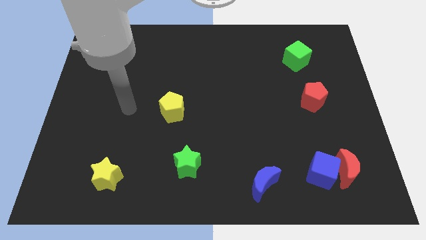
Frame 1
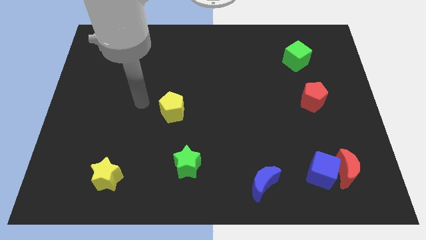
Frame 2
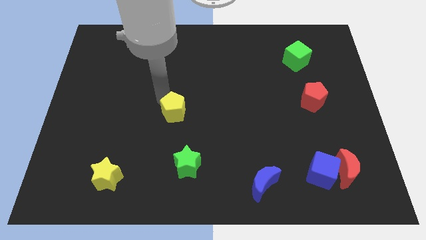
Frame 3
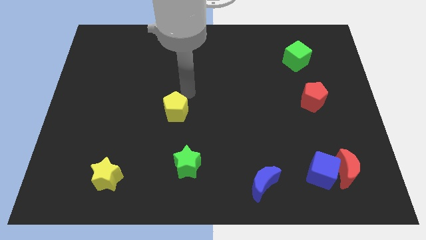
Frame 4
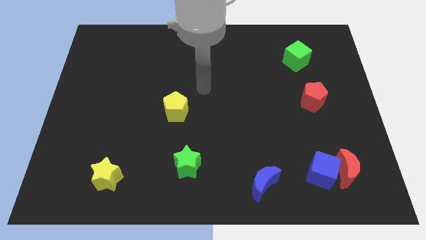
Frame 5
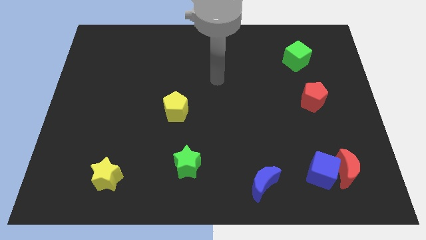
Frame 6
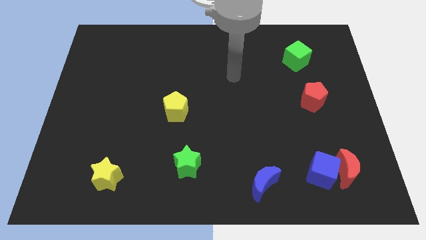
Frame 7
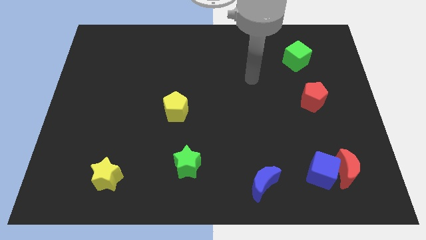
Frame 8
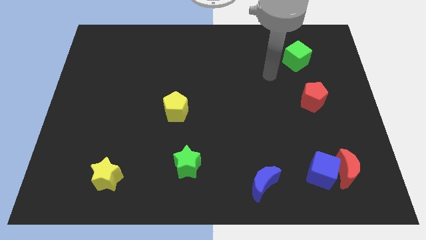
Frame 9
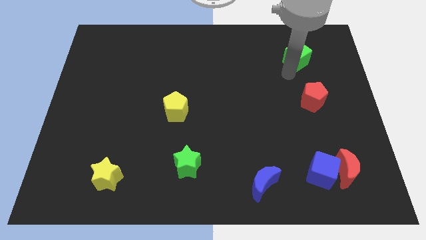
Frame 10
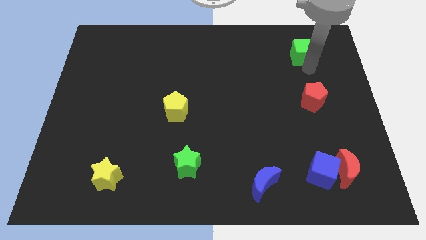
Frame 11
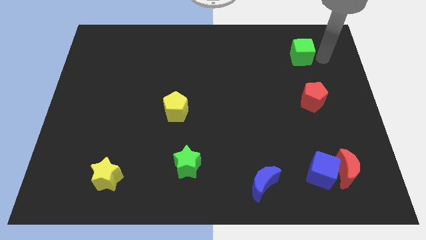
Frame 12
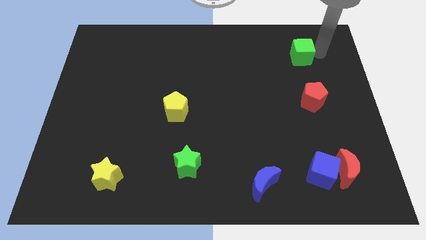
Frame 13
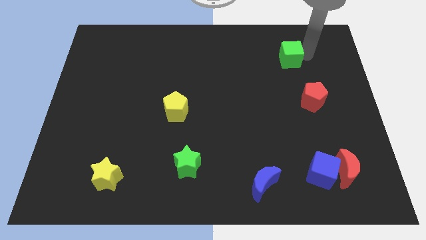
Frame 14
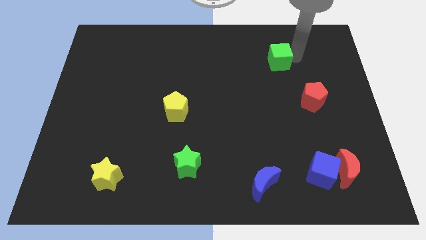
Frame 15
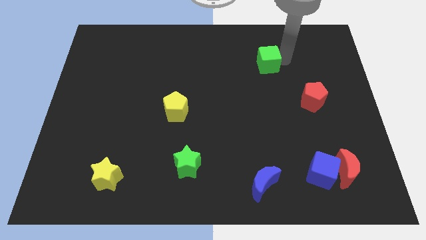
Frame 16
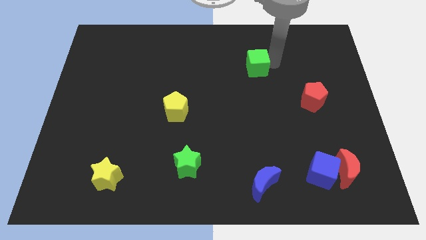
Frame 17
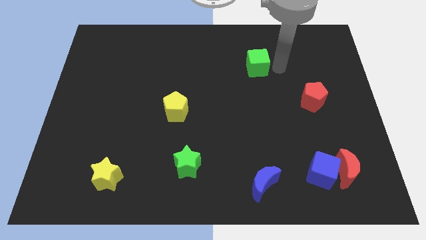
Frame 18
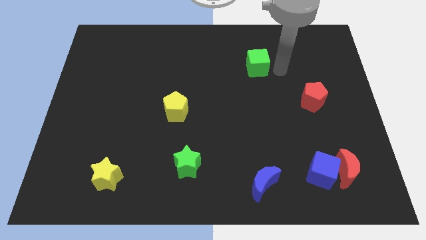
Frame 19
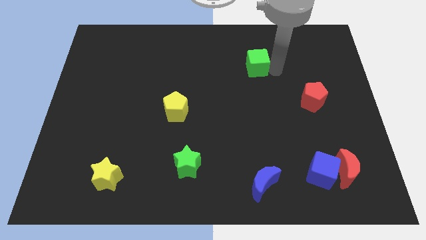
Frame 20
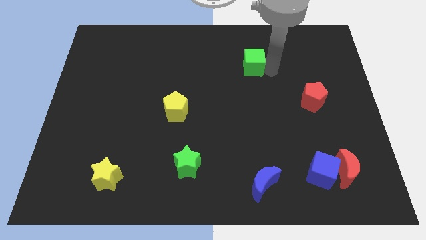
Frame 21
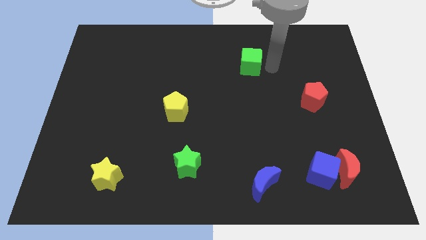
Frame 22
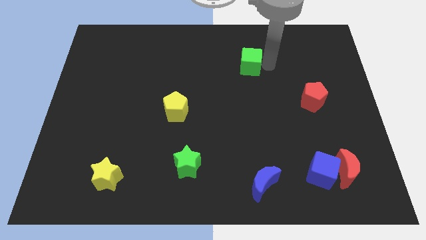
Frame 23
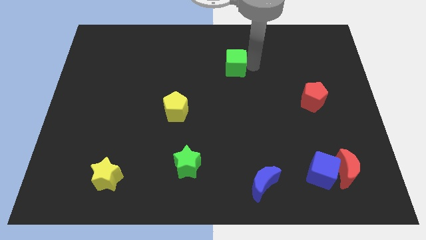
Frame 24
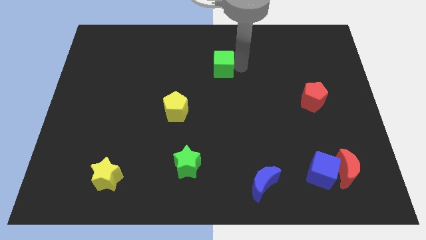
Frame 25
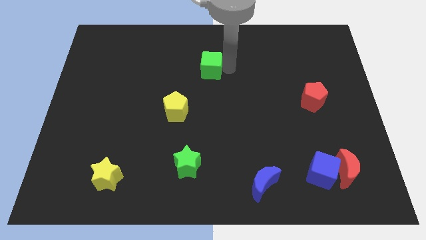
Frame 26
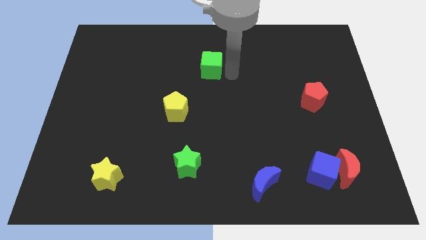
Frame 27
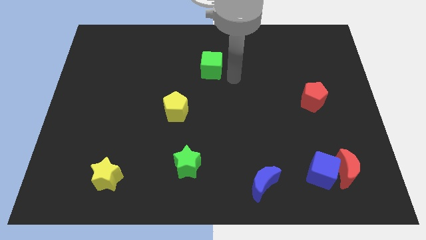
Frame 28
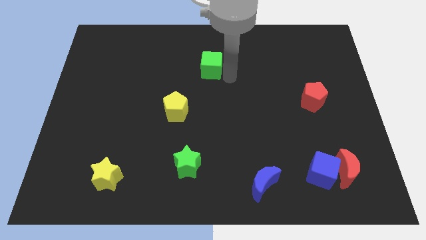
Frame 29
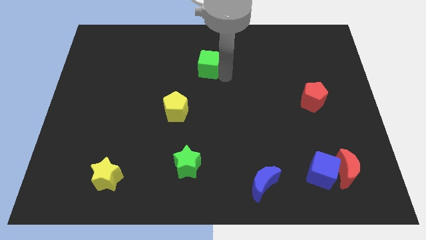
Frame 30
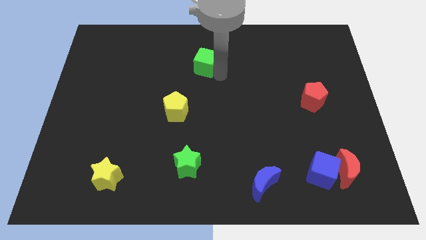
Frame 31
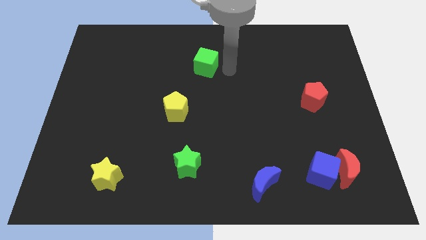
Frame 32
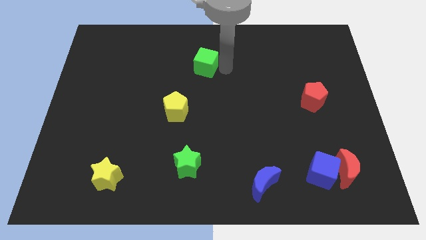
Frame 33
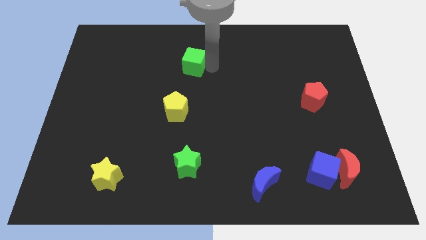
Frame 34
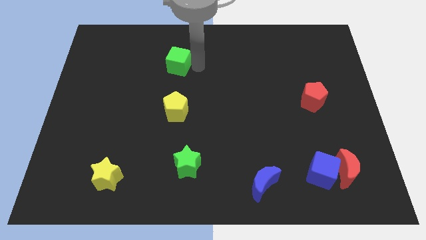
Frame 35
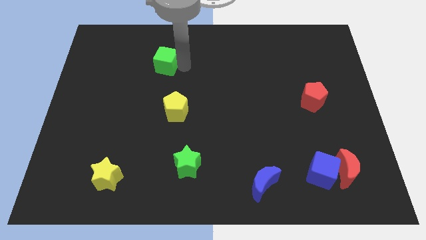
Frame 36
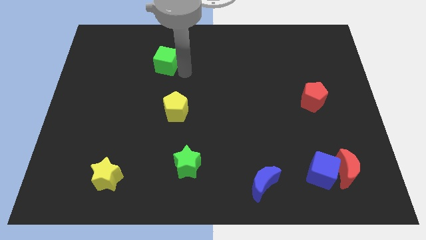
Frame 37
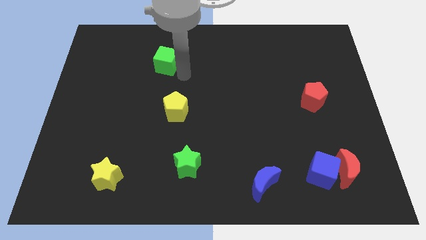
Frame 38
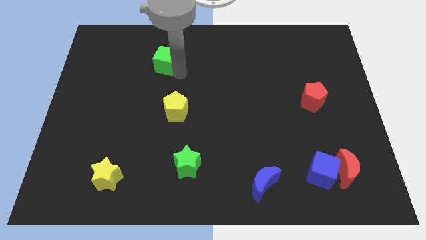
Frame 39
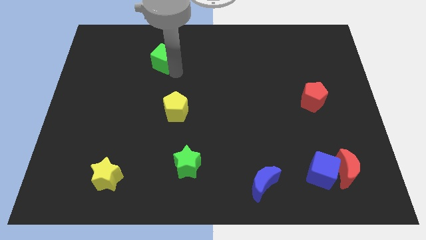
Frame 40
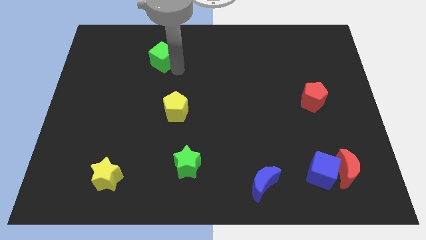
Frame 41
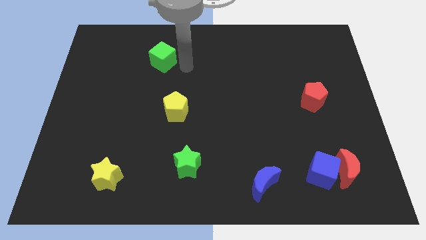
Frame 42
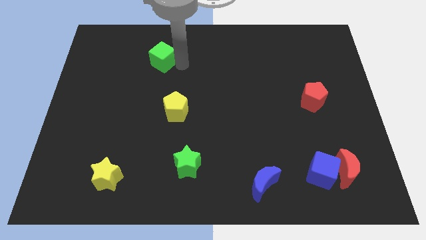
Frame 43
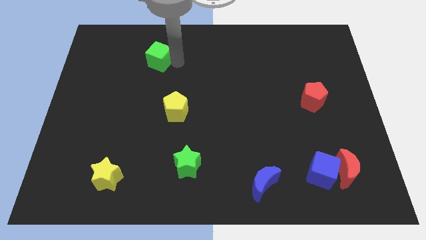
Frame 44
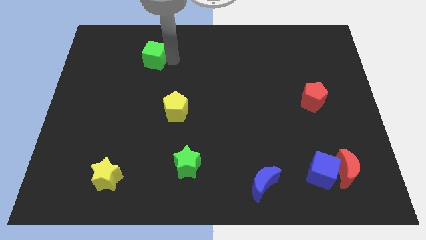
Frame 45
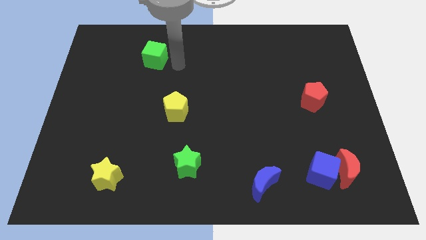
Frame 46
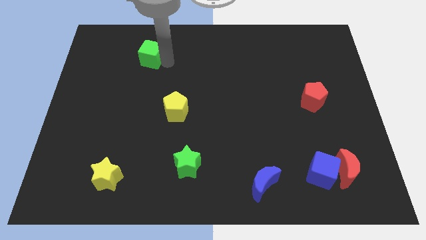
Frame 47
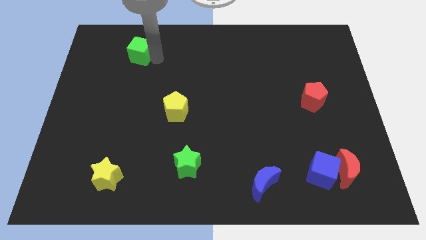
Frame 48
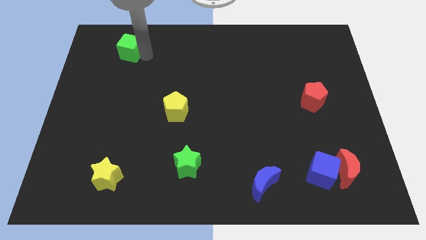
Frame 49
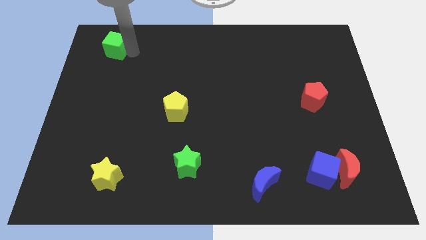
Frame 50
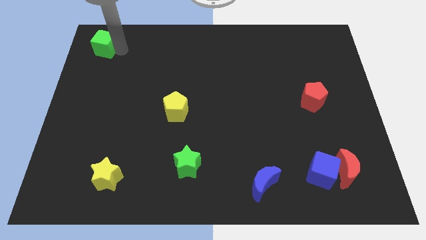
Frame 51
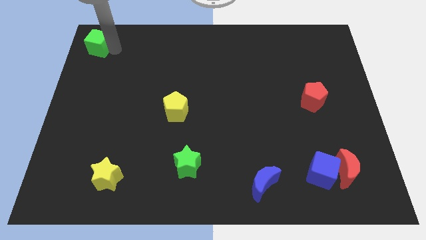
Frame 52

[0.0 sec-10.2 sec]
slide the green cube to the top left corner

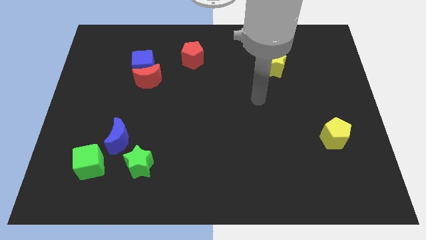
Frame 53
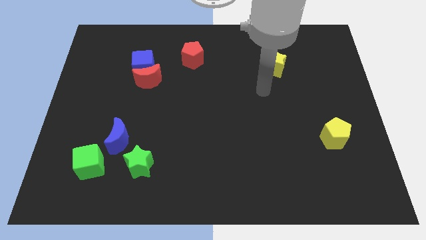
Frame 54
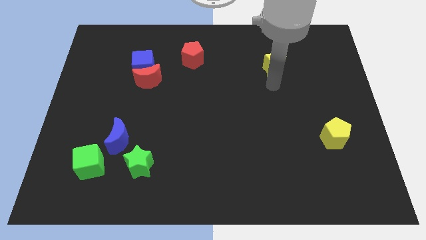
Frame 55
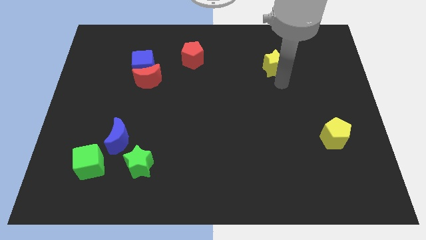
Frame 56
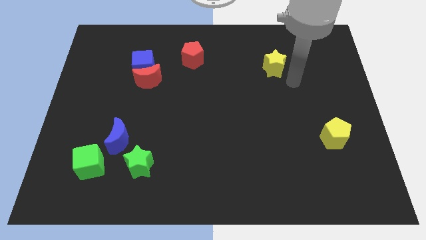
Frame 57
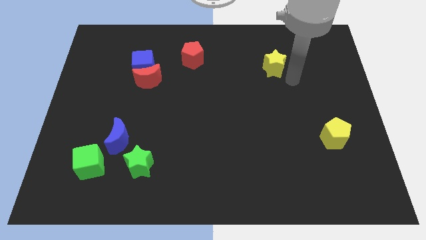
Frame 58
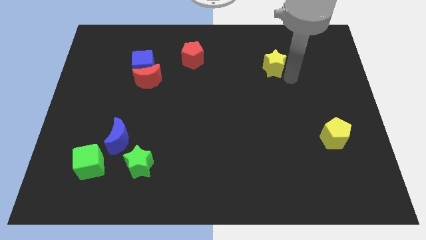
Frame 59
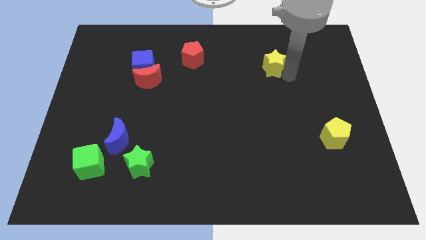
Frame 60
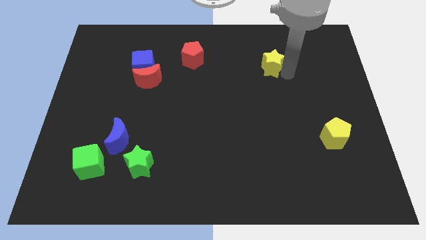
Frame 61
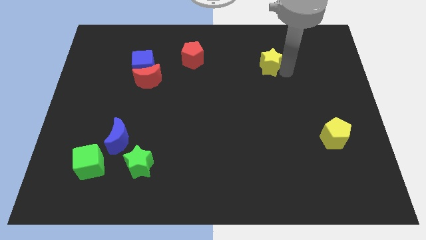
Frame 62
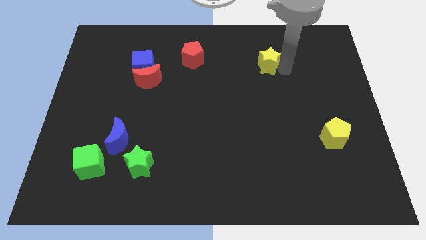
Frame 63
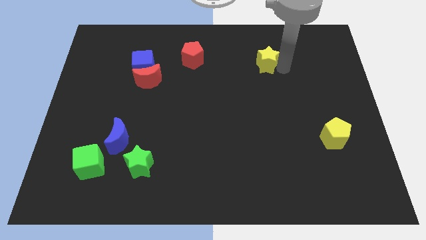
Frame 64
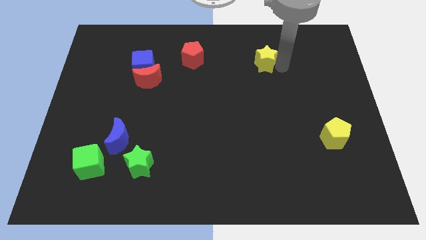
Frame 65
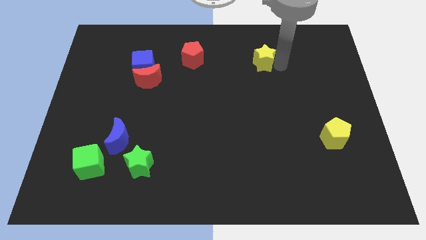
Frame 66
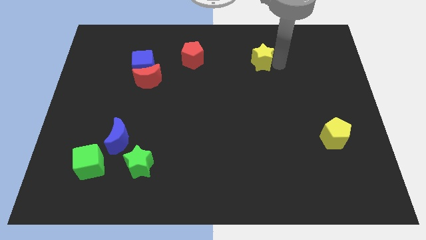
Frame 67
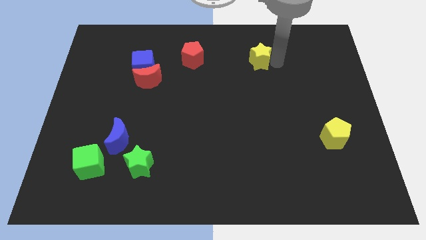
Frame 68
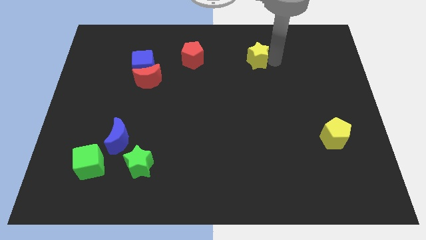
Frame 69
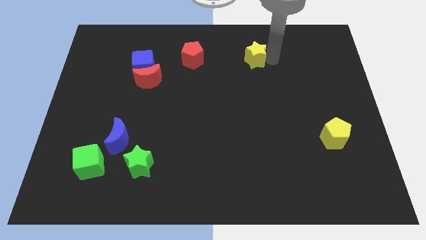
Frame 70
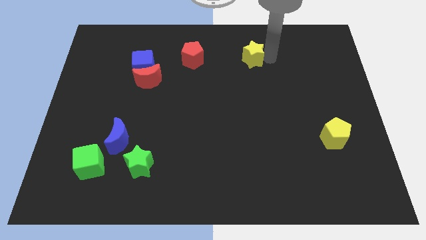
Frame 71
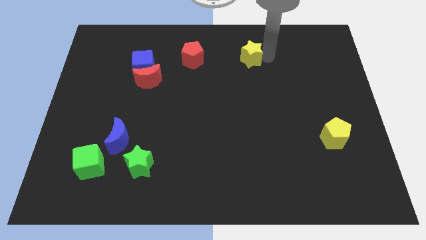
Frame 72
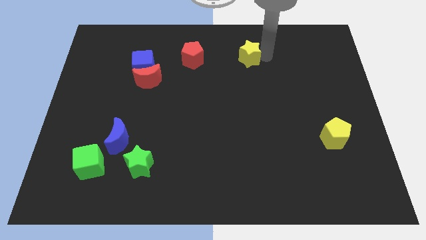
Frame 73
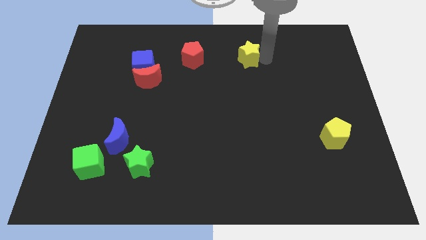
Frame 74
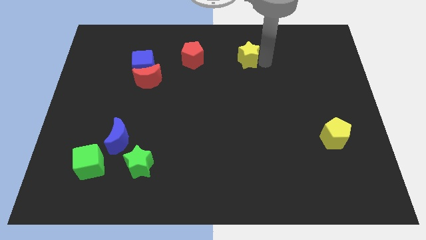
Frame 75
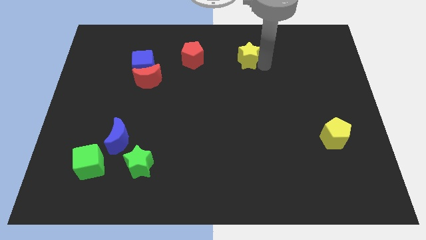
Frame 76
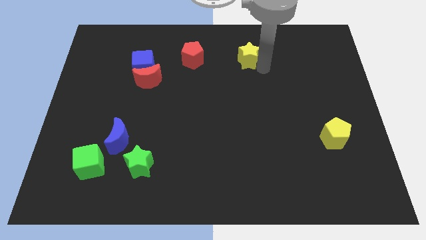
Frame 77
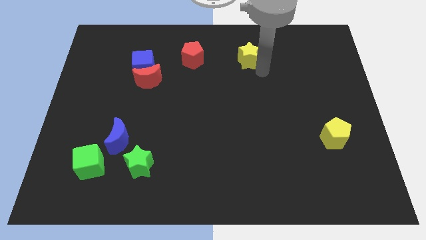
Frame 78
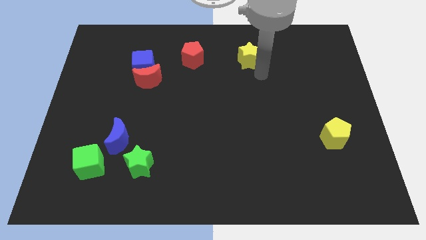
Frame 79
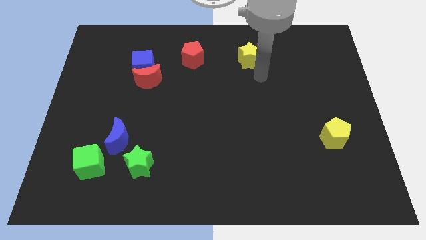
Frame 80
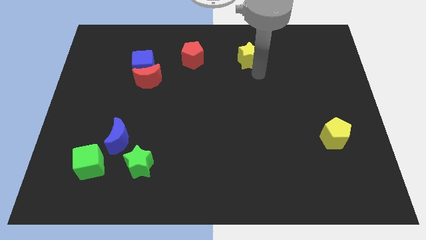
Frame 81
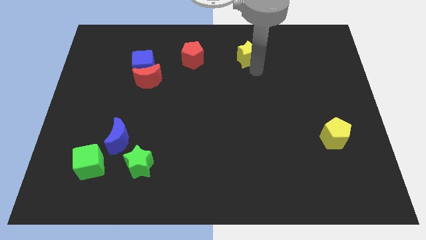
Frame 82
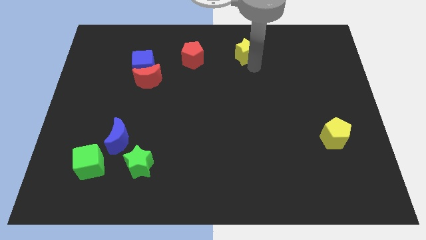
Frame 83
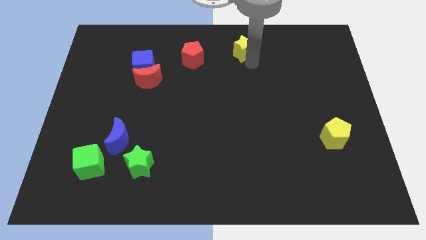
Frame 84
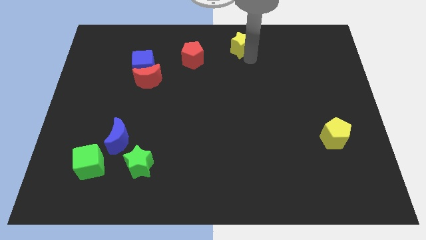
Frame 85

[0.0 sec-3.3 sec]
push the yellow star to the top side
